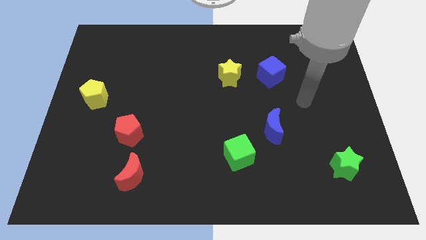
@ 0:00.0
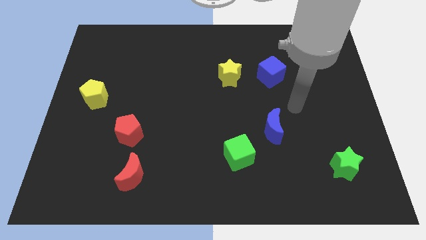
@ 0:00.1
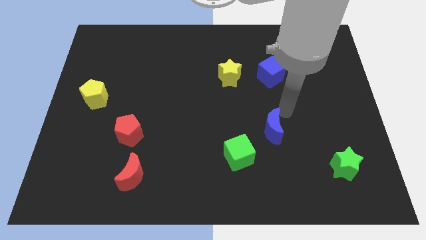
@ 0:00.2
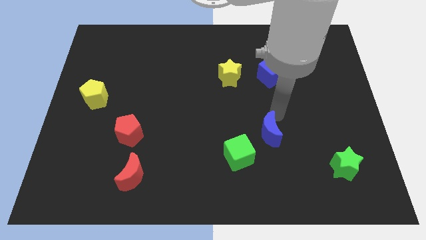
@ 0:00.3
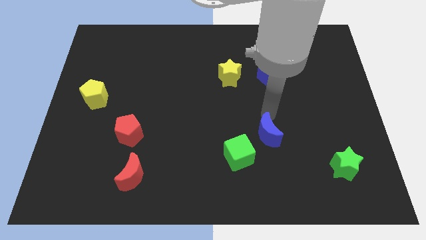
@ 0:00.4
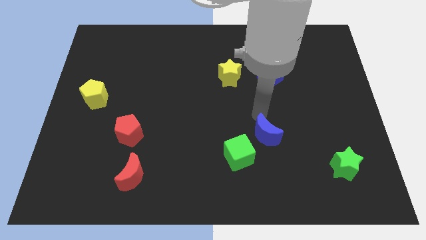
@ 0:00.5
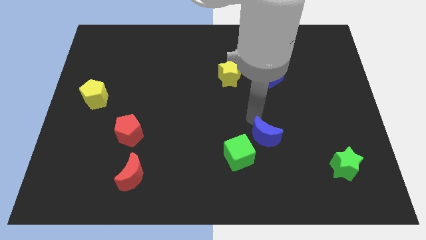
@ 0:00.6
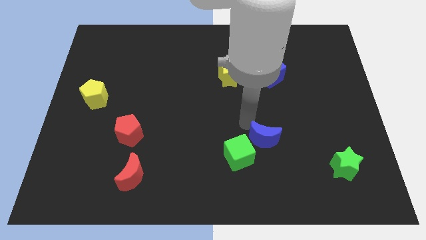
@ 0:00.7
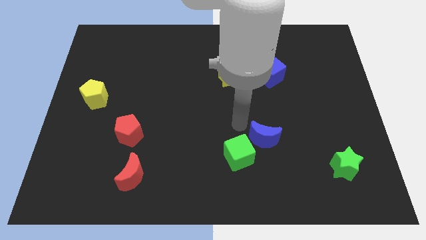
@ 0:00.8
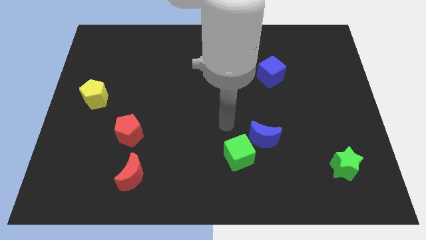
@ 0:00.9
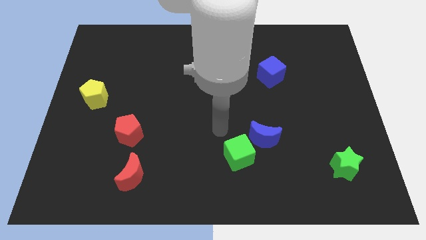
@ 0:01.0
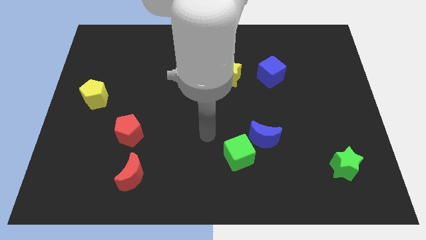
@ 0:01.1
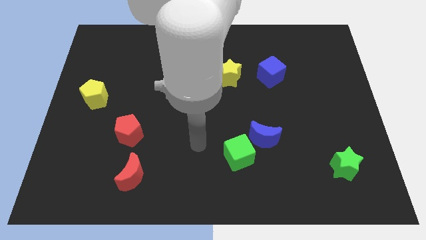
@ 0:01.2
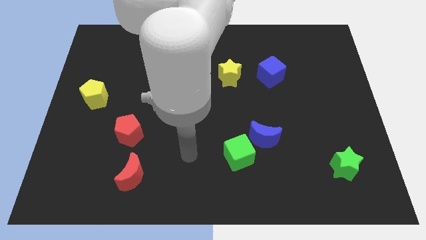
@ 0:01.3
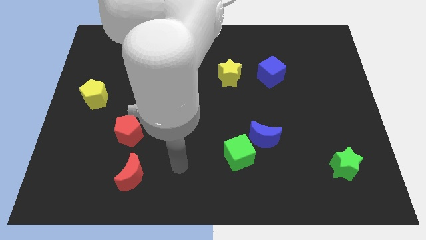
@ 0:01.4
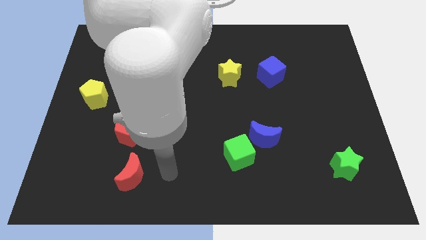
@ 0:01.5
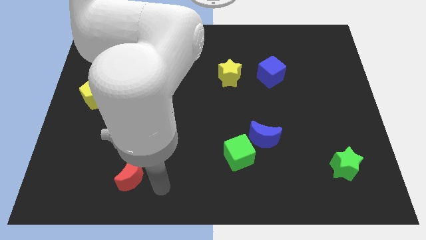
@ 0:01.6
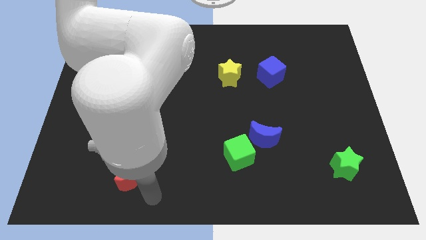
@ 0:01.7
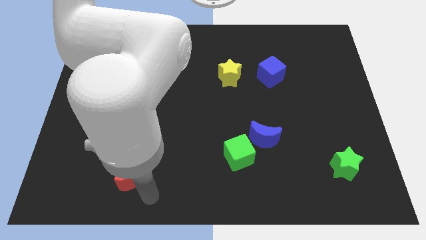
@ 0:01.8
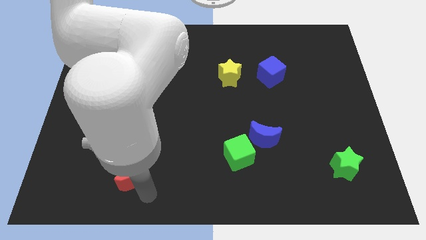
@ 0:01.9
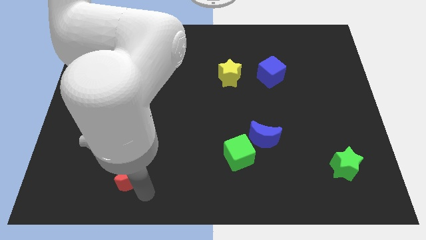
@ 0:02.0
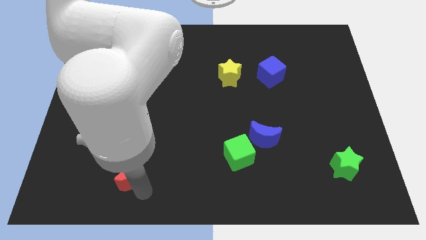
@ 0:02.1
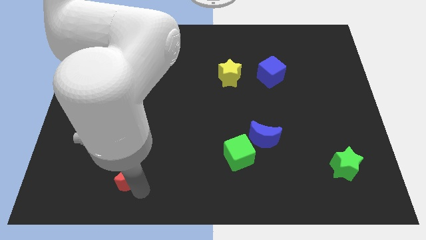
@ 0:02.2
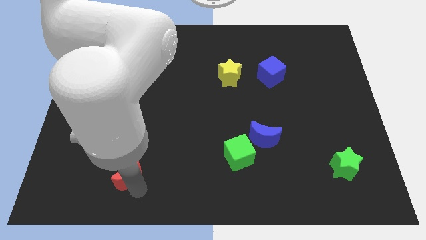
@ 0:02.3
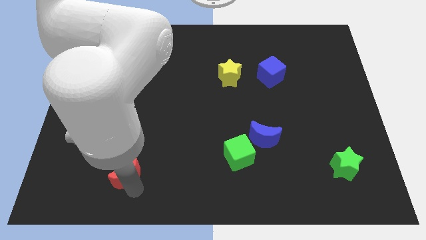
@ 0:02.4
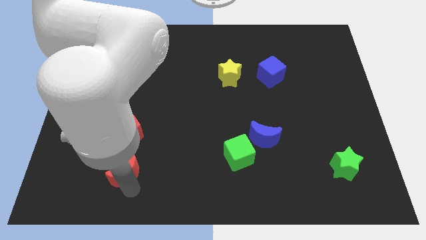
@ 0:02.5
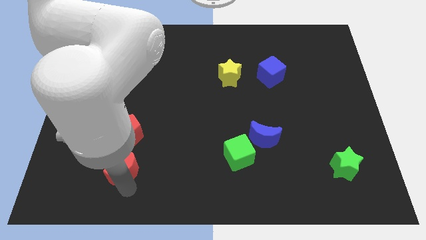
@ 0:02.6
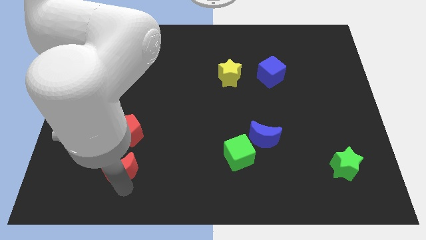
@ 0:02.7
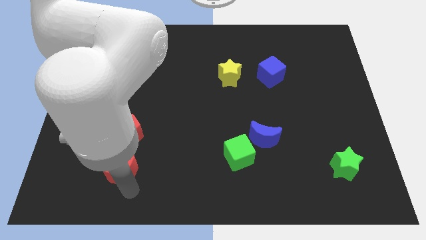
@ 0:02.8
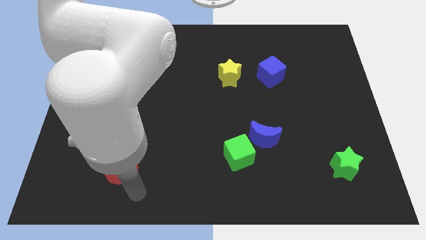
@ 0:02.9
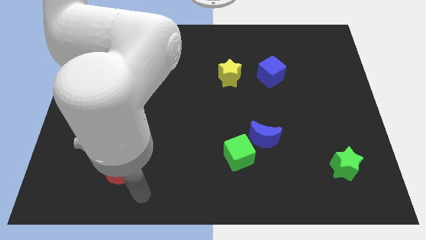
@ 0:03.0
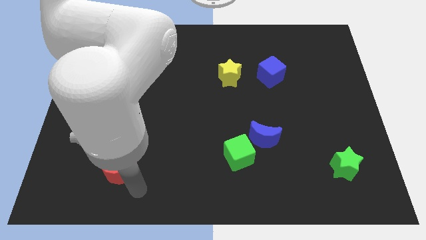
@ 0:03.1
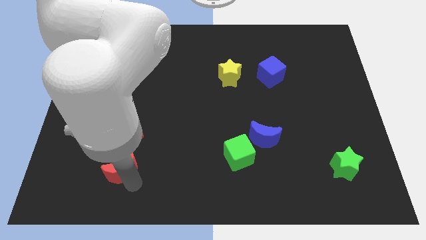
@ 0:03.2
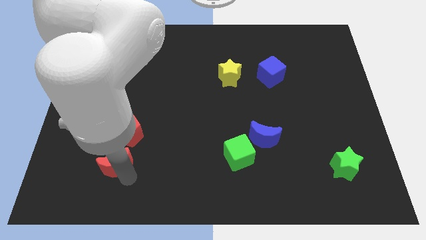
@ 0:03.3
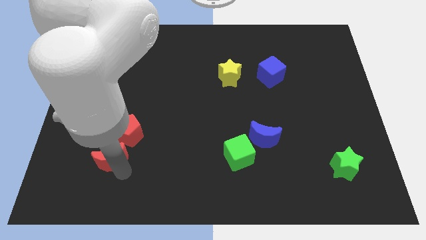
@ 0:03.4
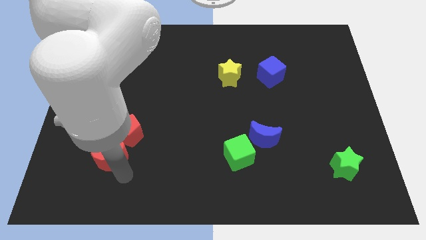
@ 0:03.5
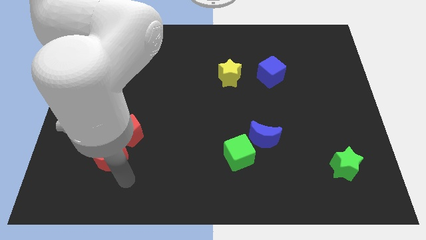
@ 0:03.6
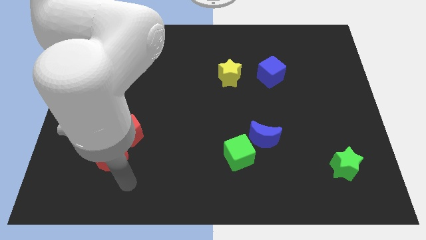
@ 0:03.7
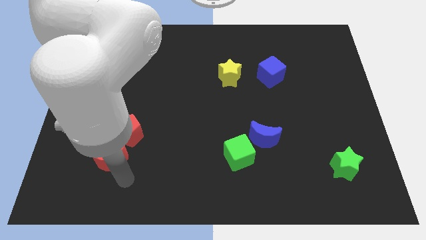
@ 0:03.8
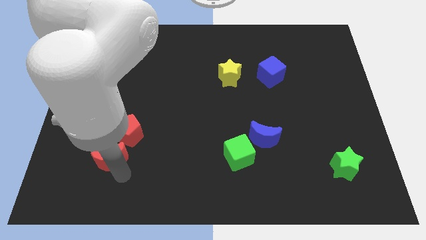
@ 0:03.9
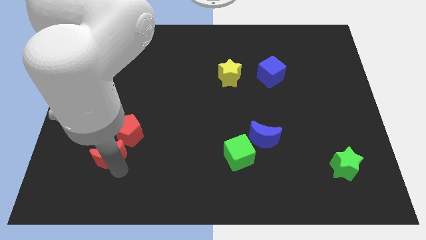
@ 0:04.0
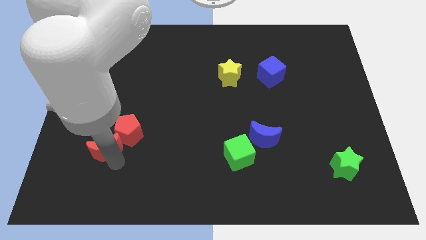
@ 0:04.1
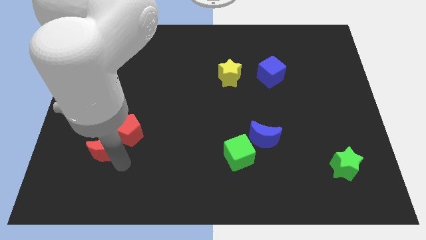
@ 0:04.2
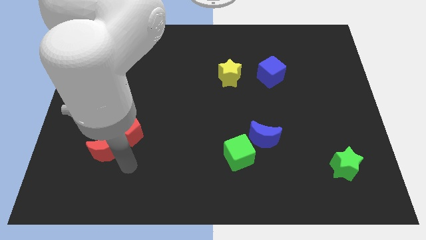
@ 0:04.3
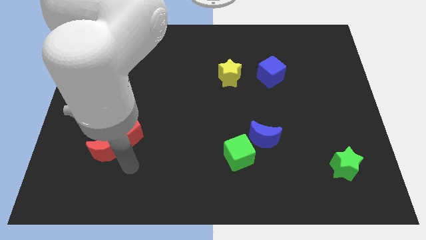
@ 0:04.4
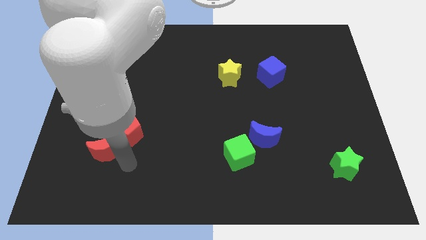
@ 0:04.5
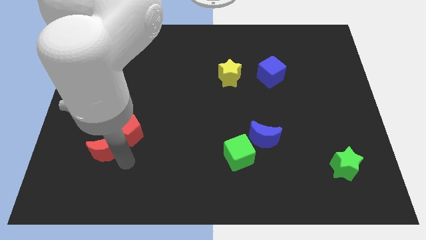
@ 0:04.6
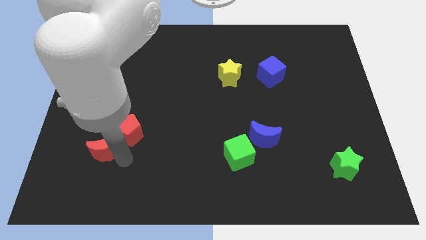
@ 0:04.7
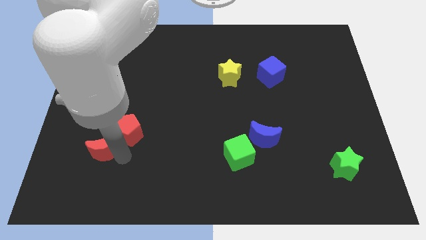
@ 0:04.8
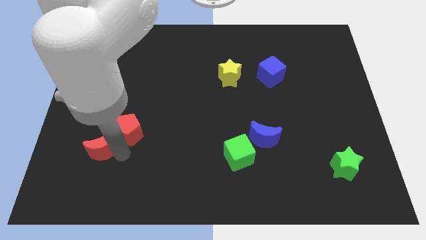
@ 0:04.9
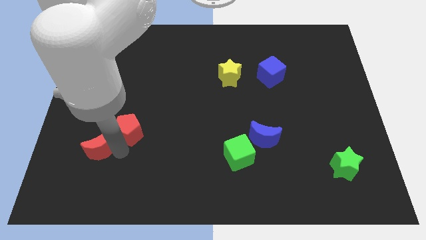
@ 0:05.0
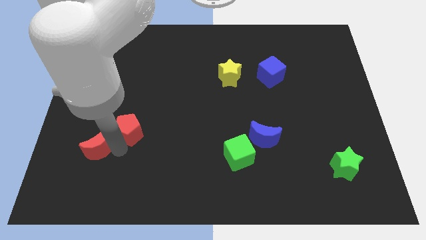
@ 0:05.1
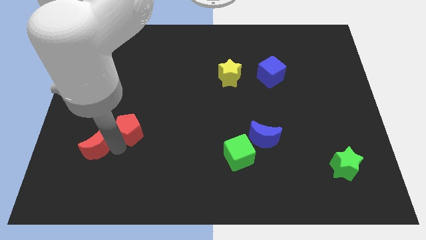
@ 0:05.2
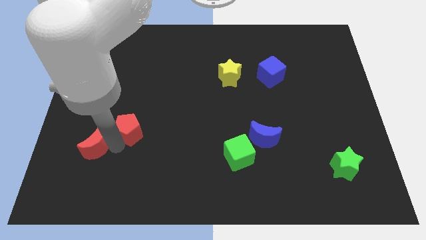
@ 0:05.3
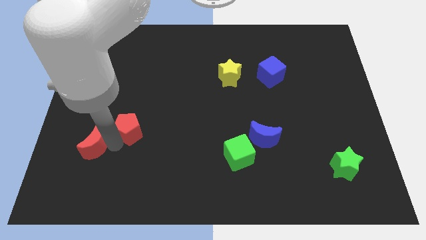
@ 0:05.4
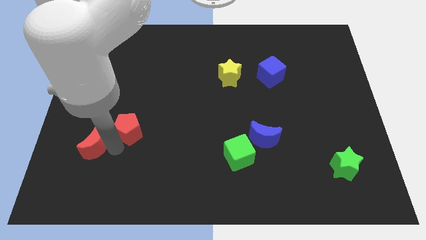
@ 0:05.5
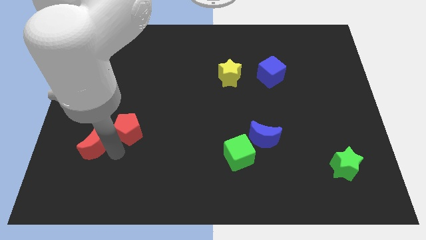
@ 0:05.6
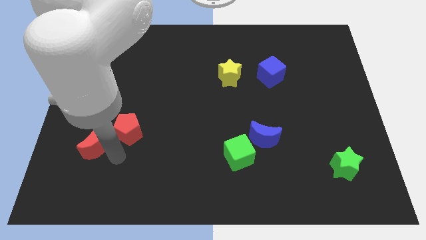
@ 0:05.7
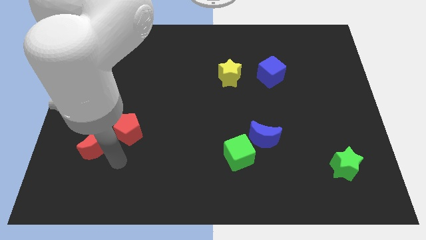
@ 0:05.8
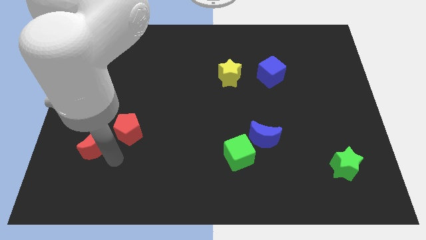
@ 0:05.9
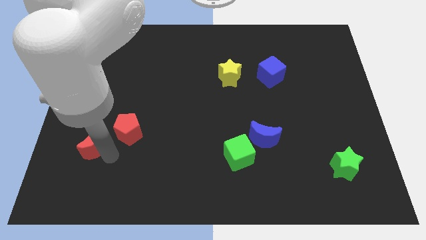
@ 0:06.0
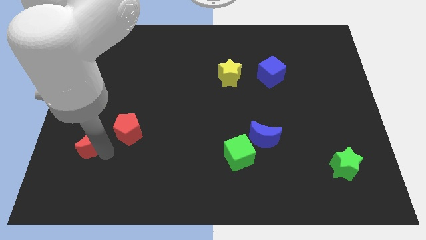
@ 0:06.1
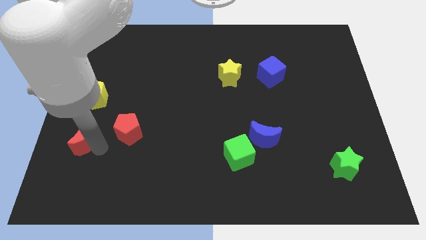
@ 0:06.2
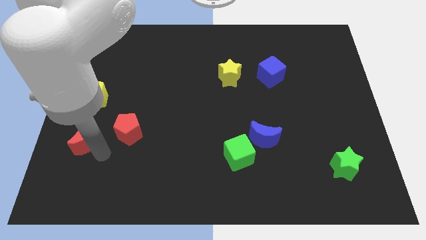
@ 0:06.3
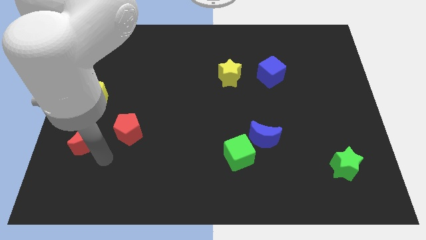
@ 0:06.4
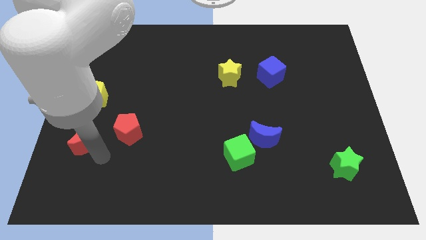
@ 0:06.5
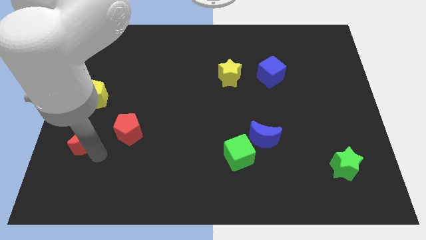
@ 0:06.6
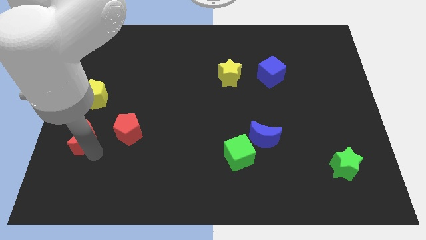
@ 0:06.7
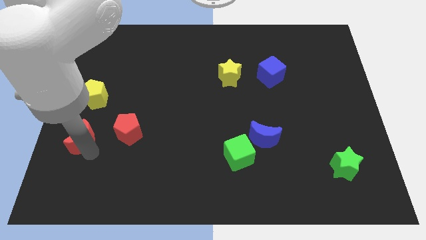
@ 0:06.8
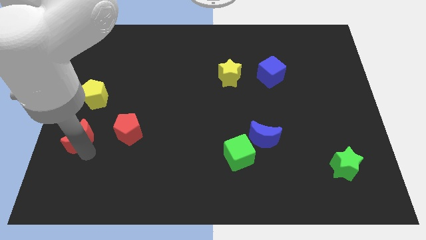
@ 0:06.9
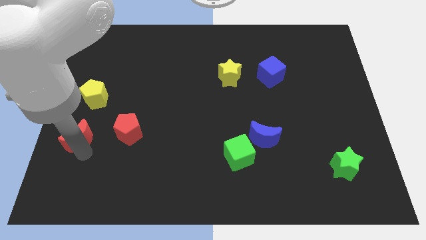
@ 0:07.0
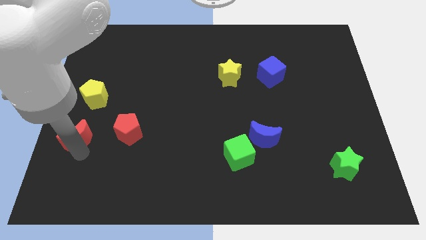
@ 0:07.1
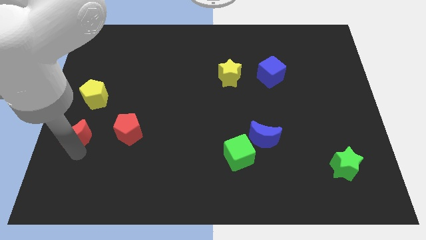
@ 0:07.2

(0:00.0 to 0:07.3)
push the red moon to the left side of the board
